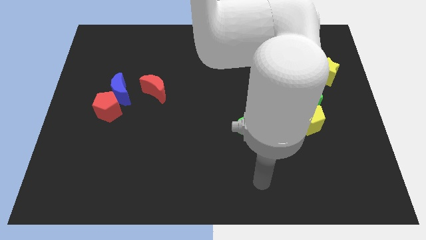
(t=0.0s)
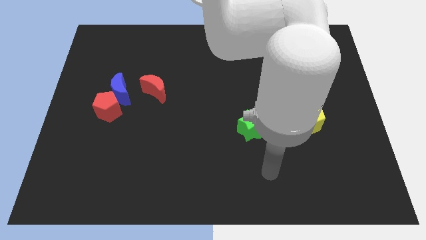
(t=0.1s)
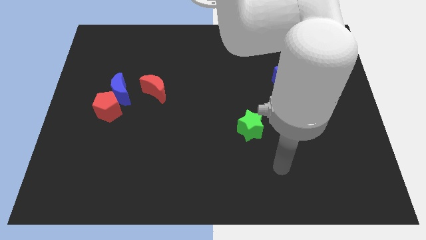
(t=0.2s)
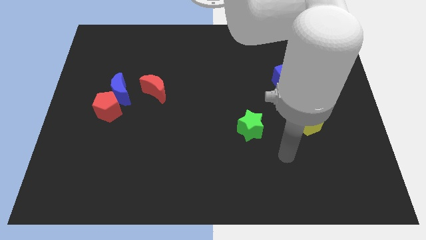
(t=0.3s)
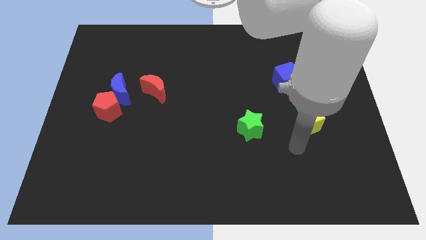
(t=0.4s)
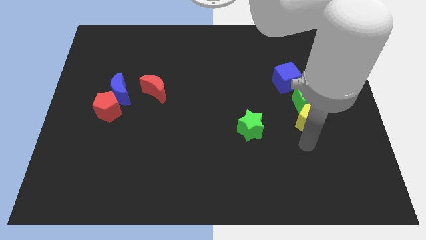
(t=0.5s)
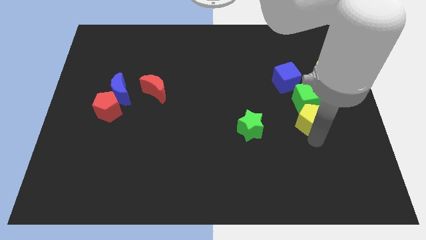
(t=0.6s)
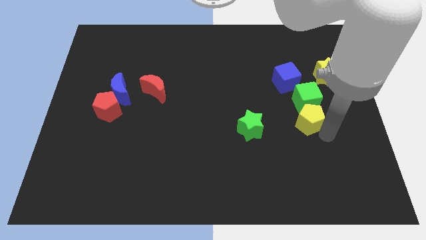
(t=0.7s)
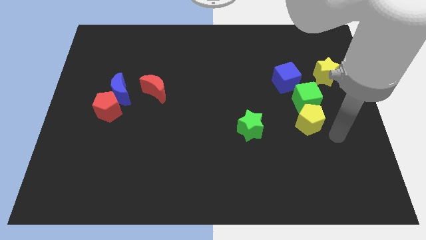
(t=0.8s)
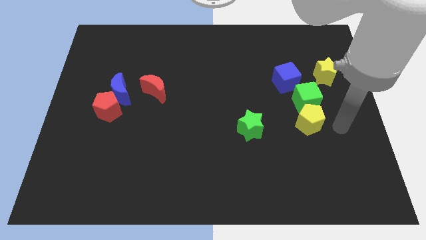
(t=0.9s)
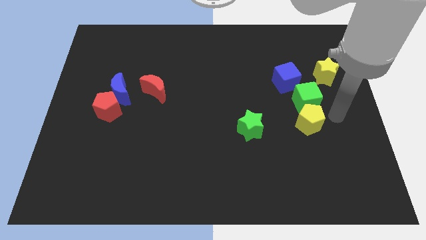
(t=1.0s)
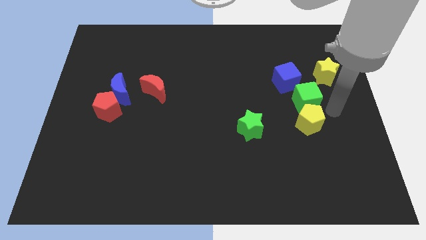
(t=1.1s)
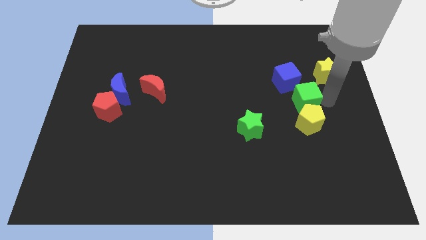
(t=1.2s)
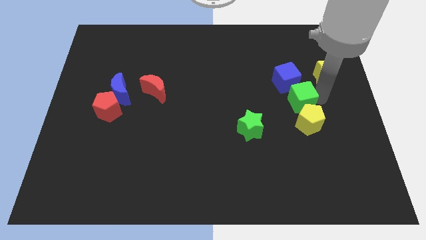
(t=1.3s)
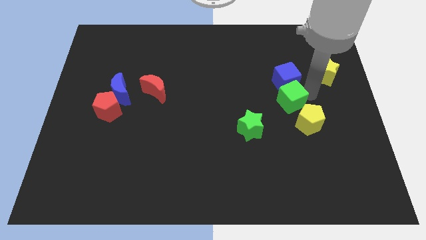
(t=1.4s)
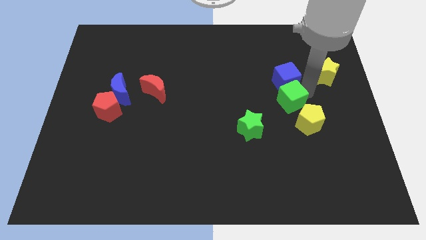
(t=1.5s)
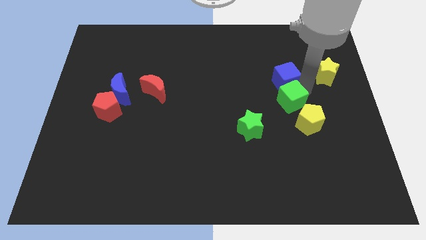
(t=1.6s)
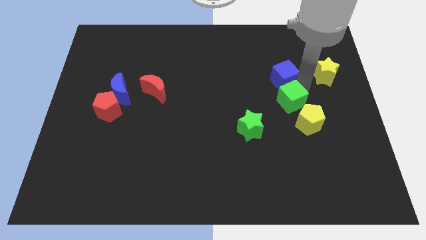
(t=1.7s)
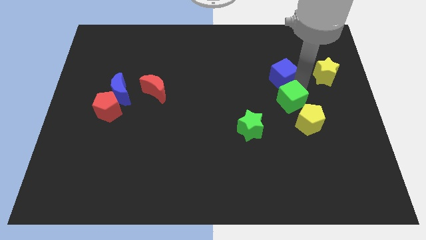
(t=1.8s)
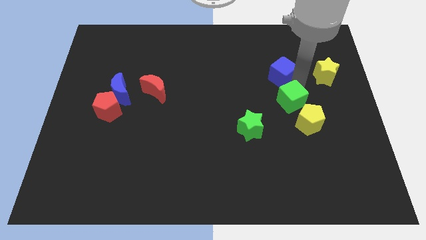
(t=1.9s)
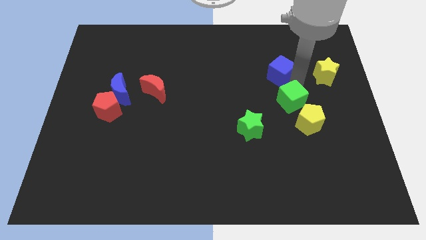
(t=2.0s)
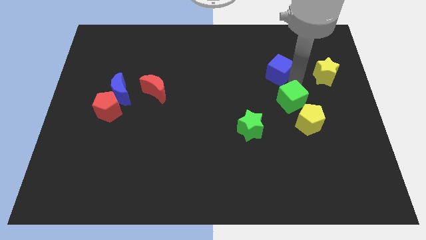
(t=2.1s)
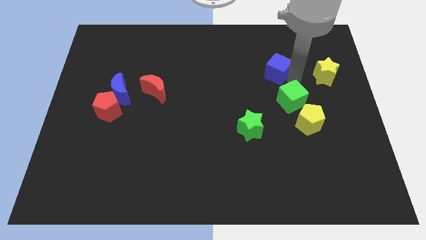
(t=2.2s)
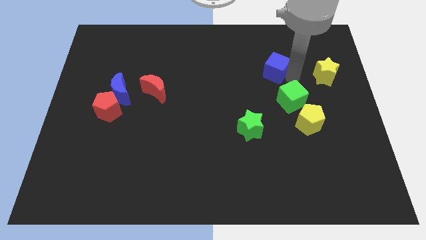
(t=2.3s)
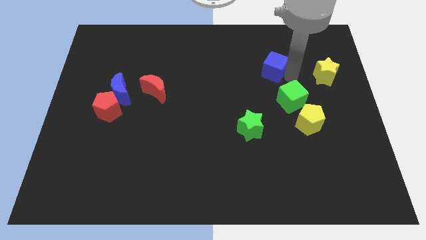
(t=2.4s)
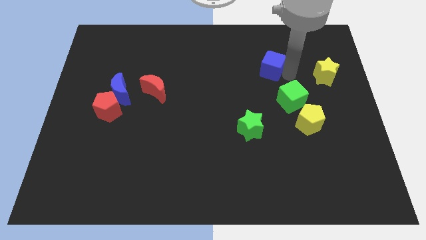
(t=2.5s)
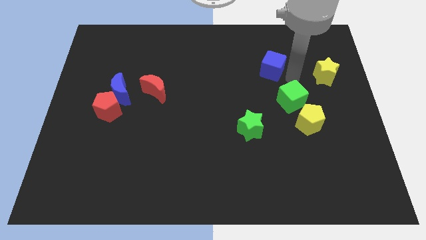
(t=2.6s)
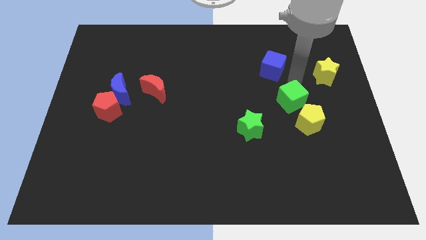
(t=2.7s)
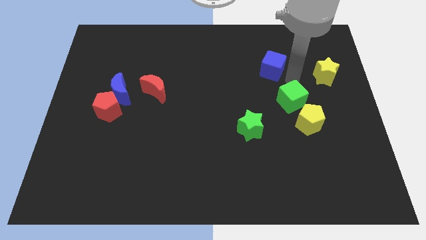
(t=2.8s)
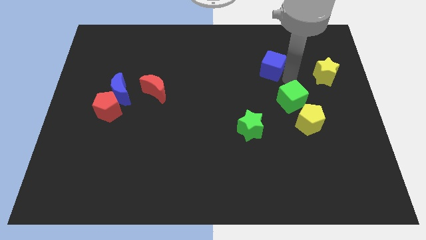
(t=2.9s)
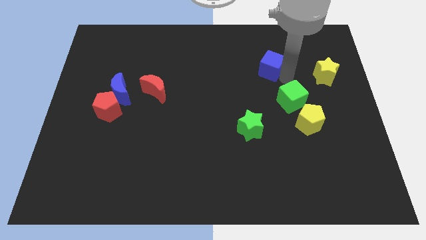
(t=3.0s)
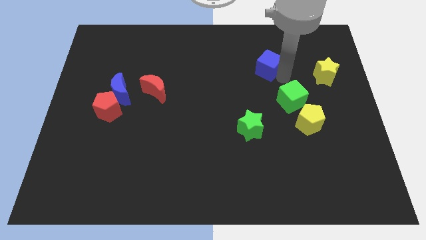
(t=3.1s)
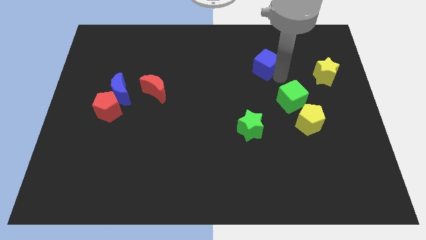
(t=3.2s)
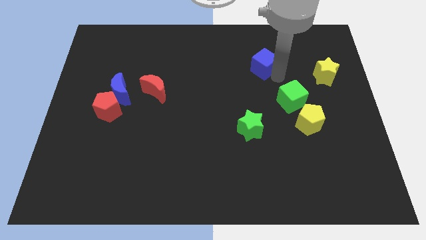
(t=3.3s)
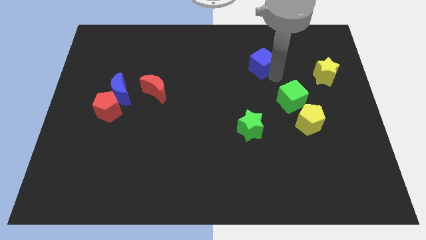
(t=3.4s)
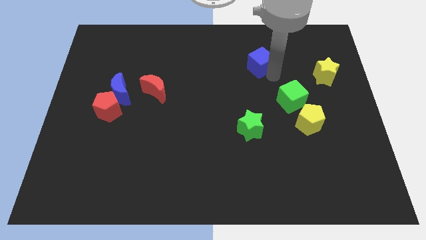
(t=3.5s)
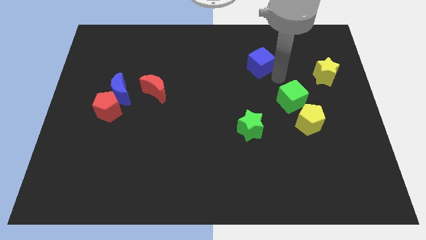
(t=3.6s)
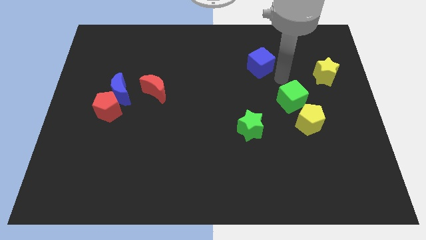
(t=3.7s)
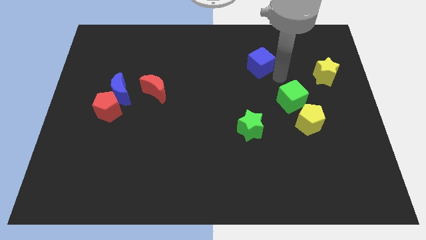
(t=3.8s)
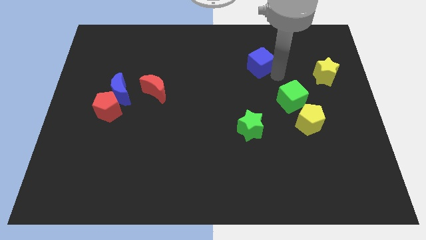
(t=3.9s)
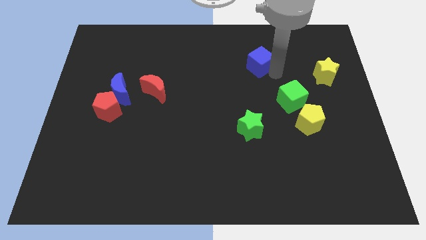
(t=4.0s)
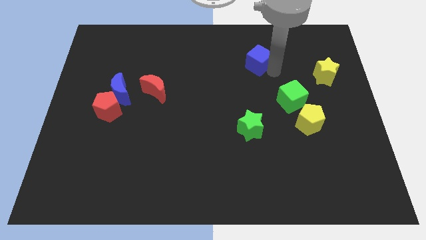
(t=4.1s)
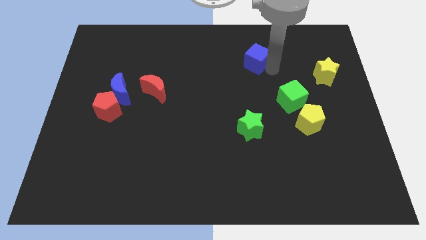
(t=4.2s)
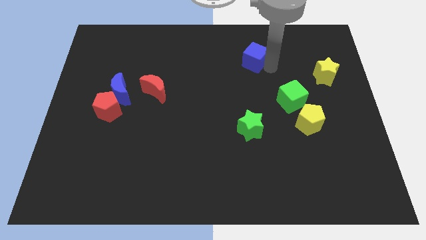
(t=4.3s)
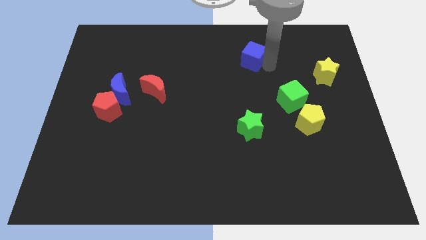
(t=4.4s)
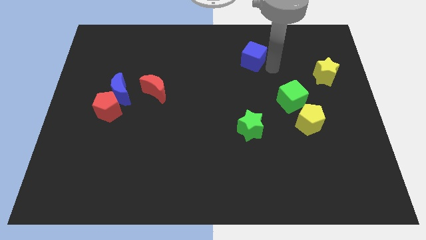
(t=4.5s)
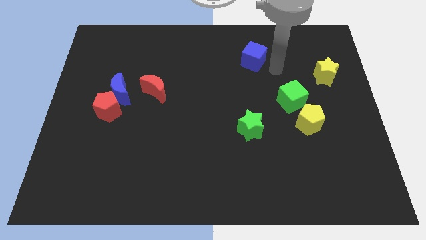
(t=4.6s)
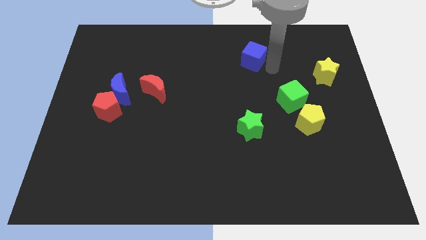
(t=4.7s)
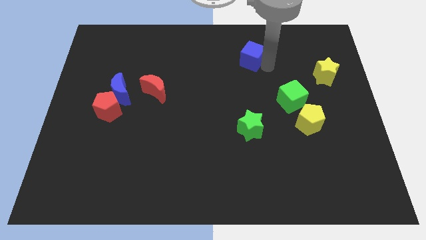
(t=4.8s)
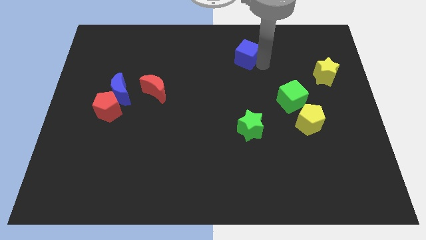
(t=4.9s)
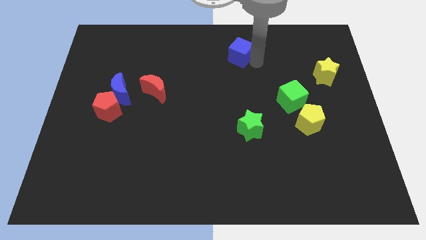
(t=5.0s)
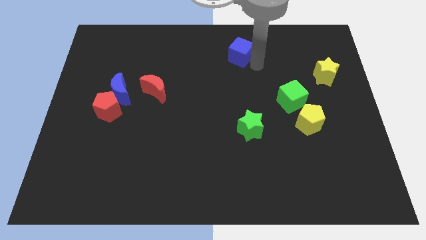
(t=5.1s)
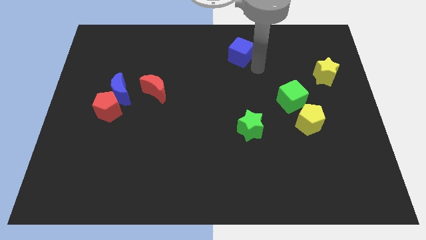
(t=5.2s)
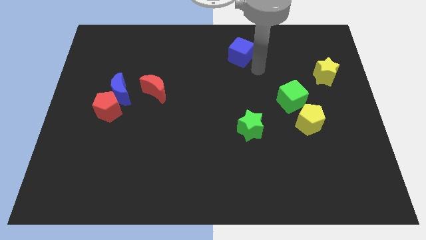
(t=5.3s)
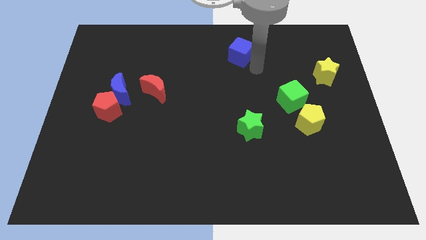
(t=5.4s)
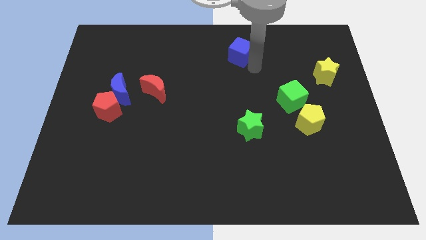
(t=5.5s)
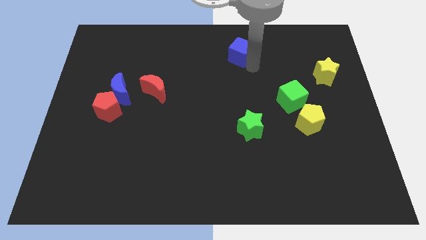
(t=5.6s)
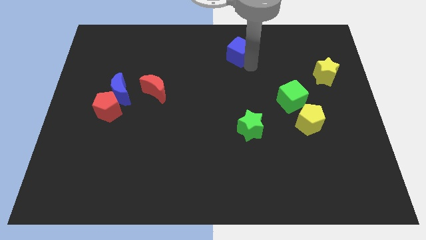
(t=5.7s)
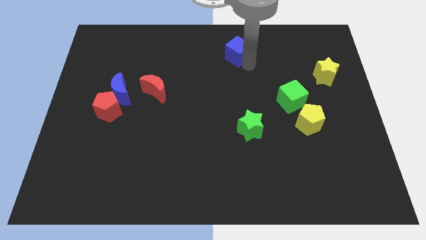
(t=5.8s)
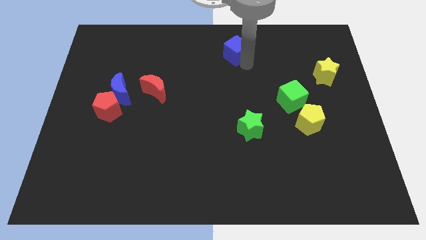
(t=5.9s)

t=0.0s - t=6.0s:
move the blue cube to the top
